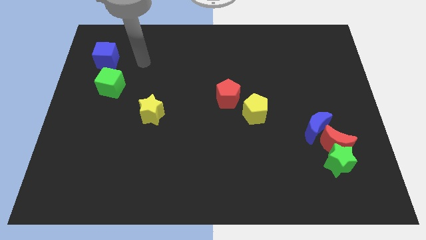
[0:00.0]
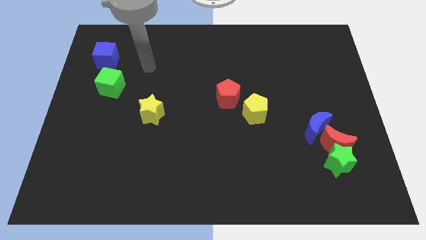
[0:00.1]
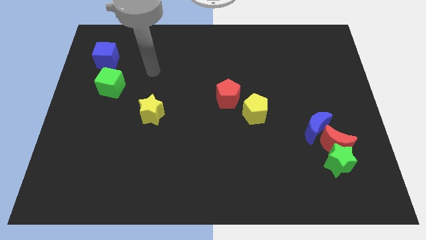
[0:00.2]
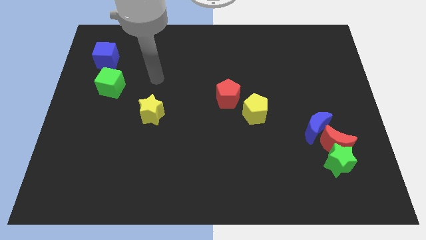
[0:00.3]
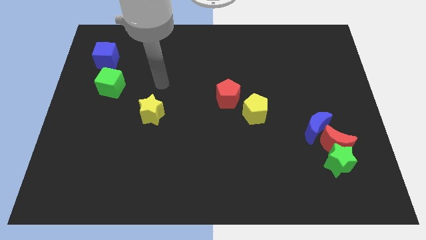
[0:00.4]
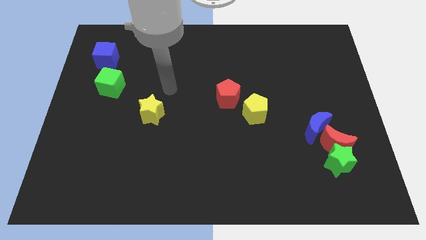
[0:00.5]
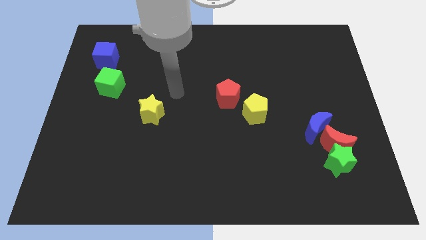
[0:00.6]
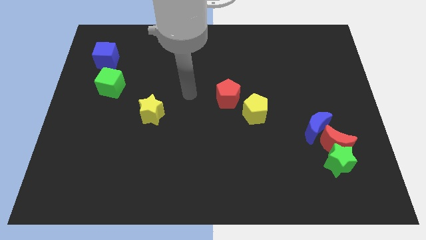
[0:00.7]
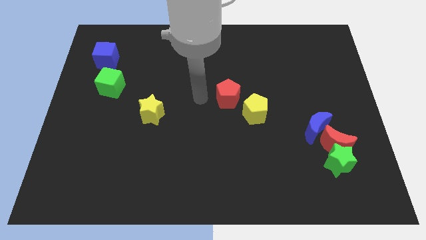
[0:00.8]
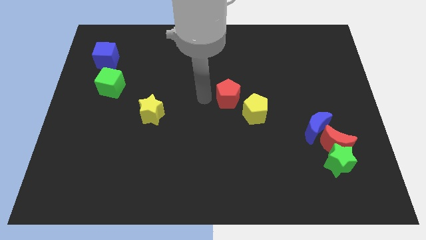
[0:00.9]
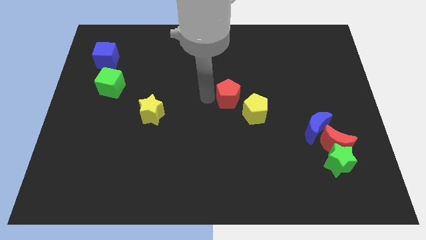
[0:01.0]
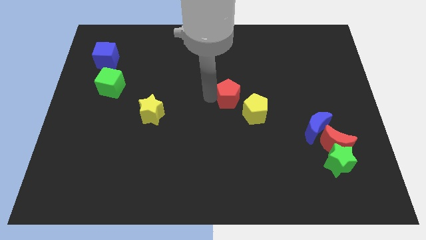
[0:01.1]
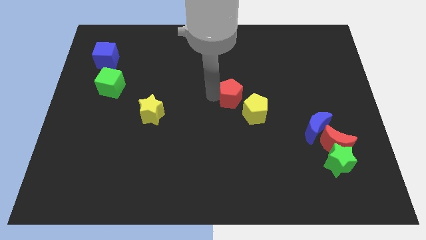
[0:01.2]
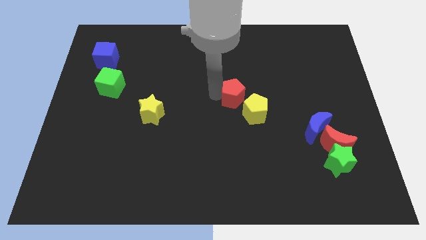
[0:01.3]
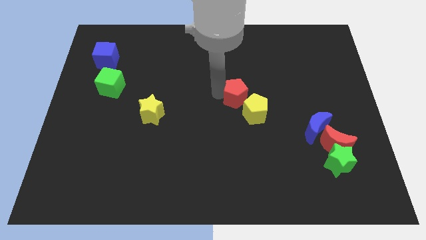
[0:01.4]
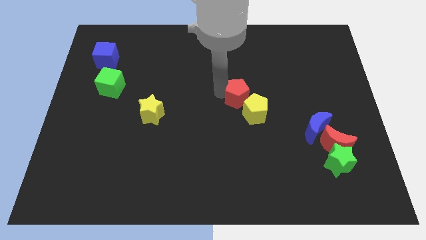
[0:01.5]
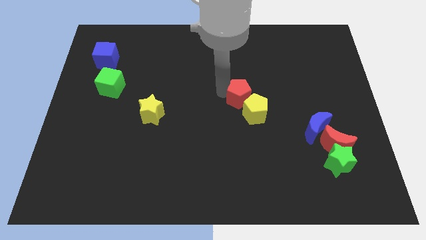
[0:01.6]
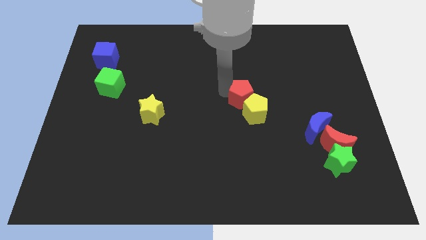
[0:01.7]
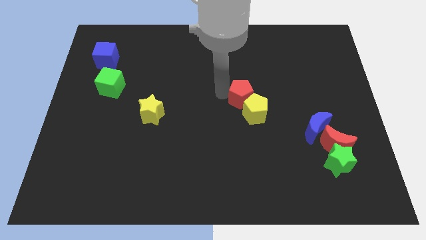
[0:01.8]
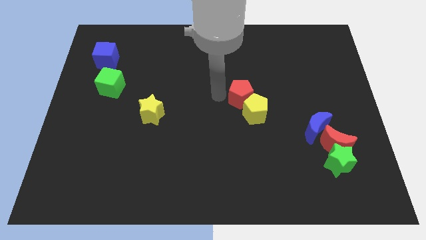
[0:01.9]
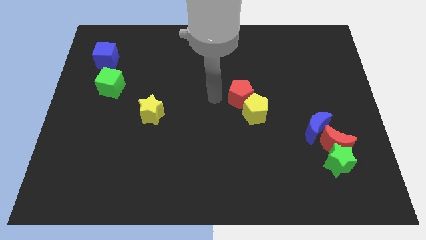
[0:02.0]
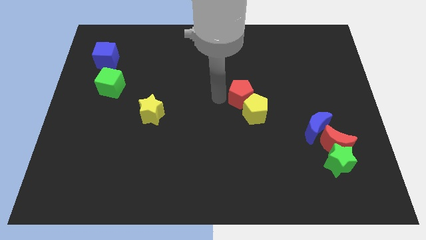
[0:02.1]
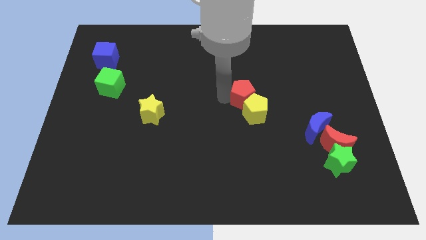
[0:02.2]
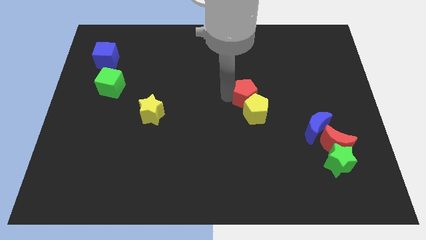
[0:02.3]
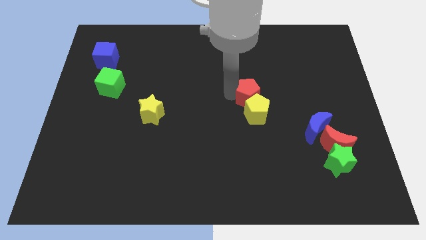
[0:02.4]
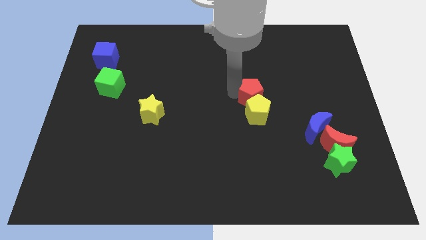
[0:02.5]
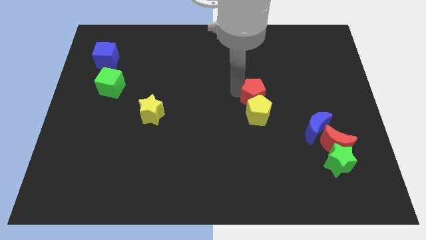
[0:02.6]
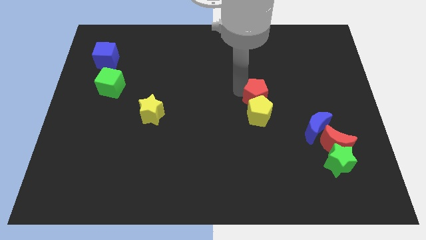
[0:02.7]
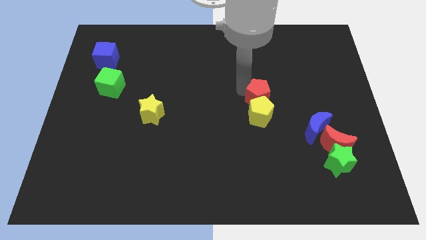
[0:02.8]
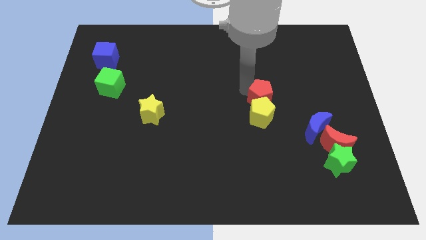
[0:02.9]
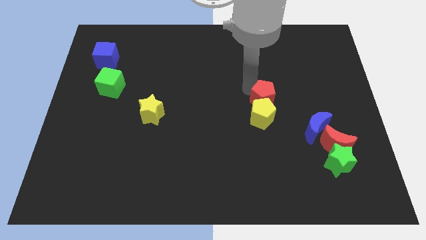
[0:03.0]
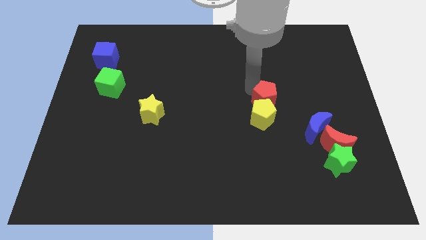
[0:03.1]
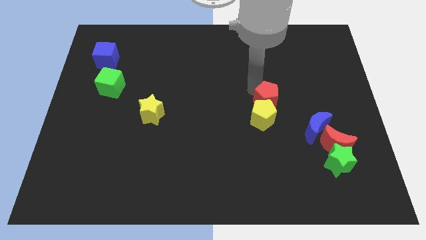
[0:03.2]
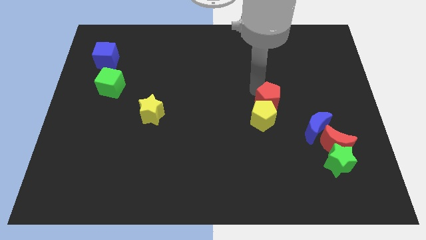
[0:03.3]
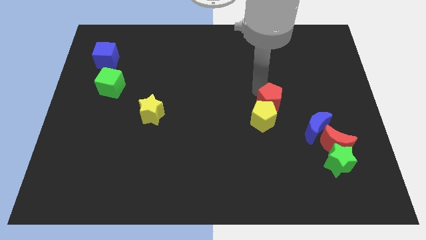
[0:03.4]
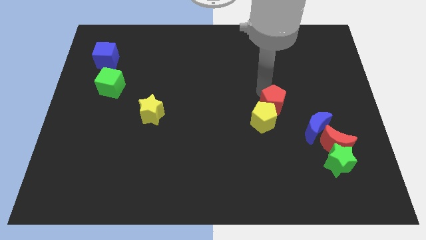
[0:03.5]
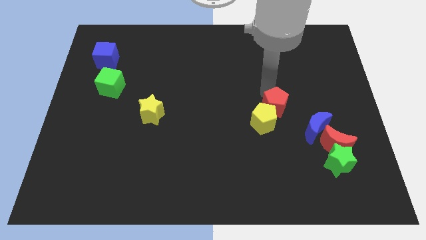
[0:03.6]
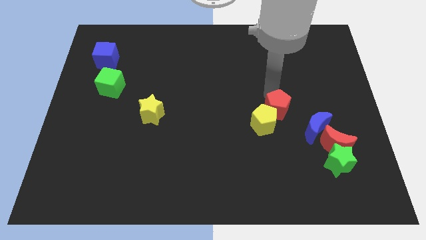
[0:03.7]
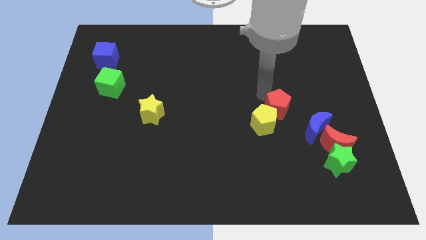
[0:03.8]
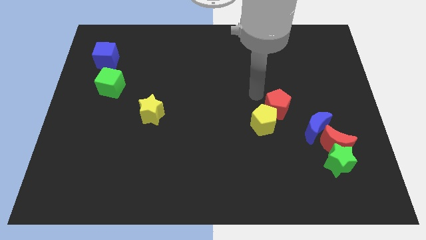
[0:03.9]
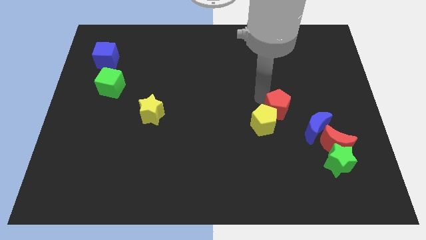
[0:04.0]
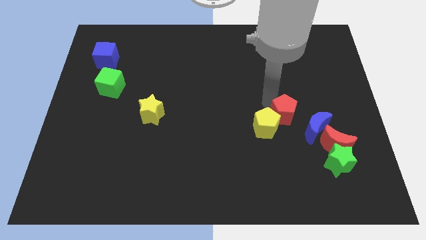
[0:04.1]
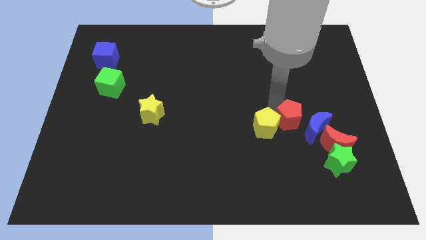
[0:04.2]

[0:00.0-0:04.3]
slide the red pentagon to the top left side of the red moon

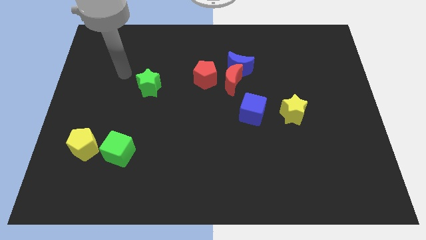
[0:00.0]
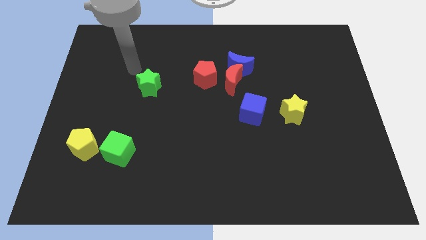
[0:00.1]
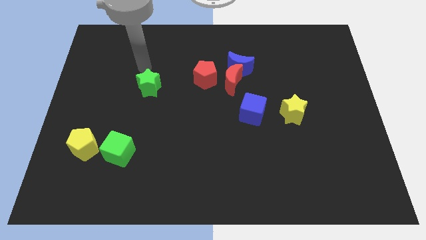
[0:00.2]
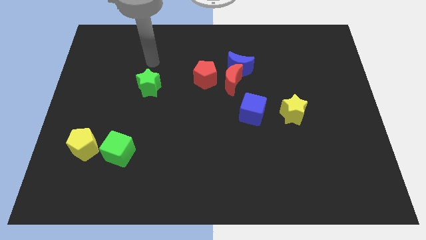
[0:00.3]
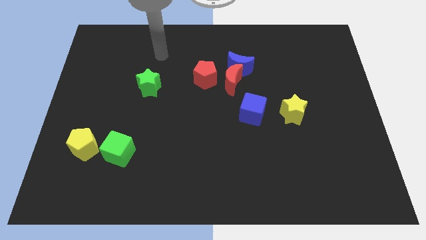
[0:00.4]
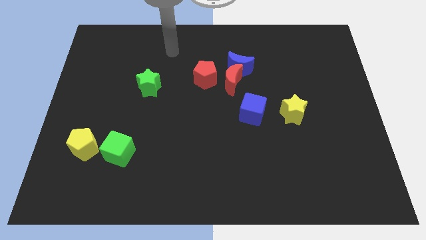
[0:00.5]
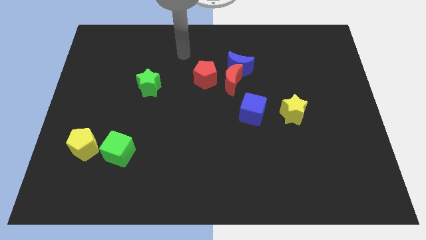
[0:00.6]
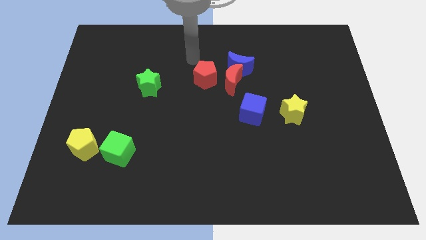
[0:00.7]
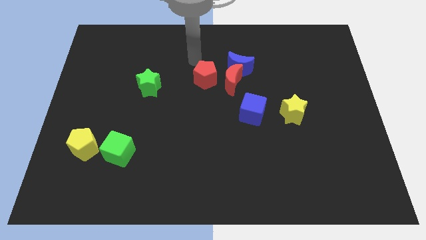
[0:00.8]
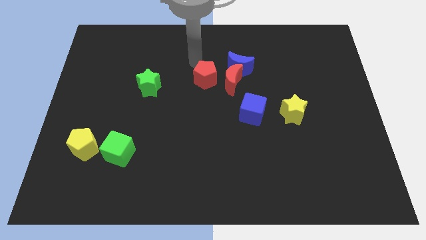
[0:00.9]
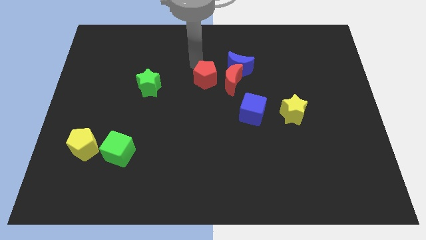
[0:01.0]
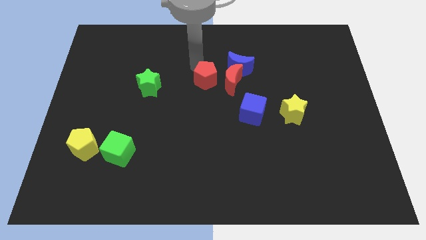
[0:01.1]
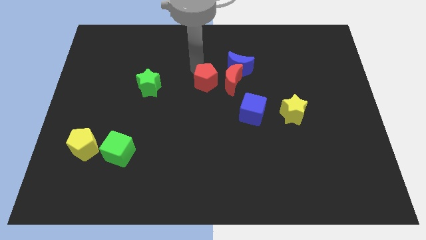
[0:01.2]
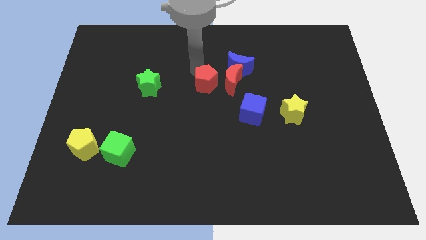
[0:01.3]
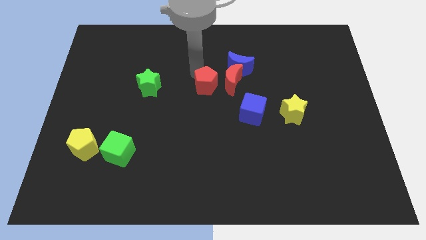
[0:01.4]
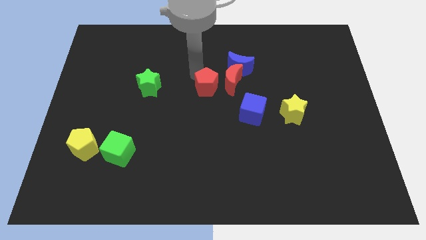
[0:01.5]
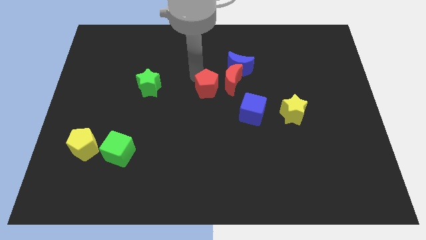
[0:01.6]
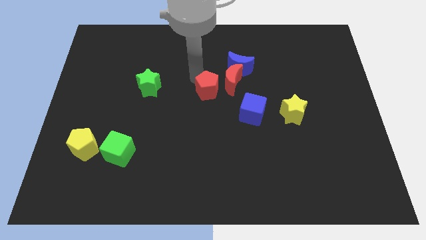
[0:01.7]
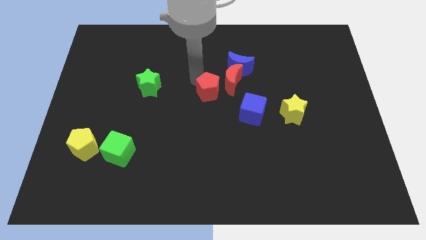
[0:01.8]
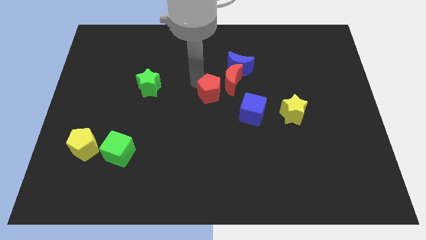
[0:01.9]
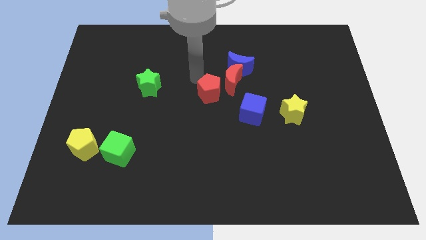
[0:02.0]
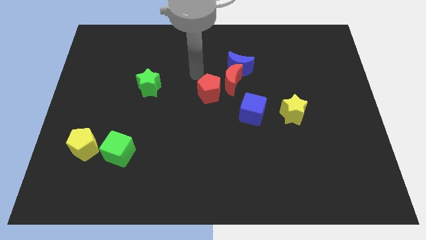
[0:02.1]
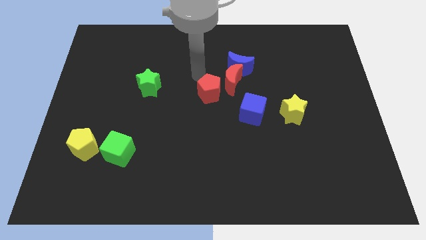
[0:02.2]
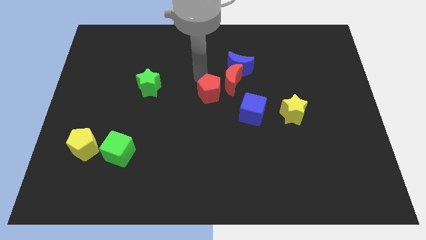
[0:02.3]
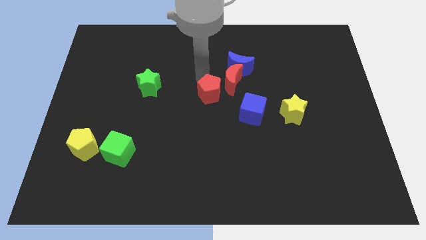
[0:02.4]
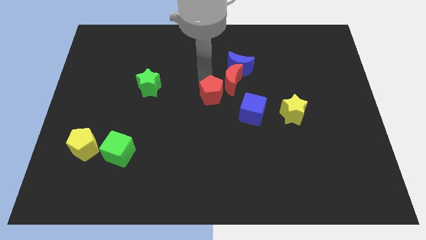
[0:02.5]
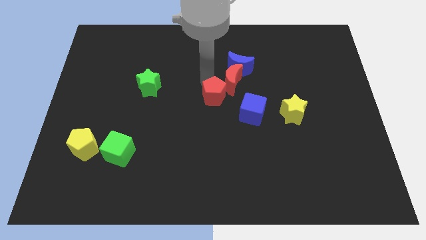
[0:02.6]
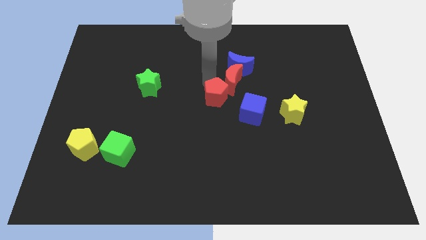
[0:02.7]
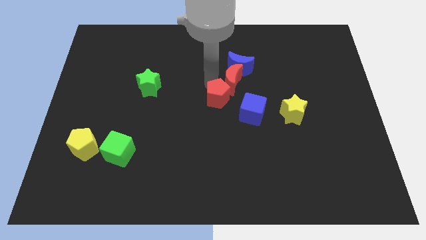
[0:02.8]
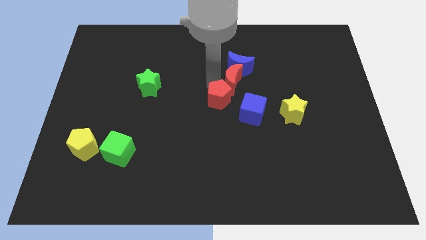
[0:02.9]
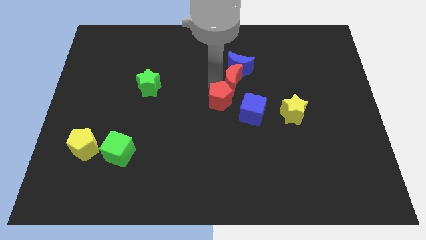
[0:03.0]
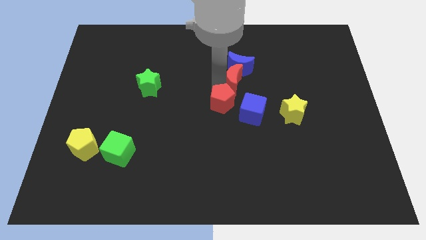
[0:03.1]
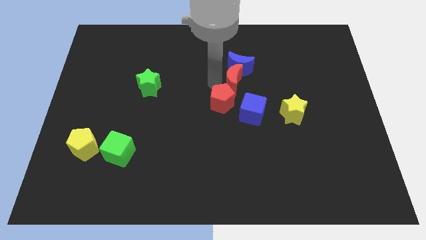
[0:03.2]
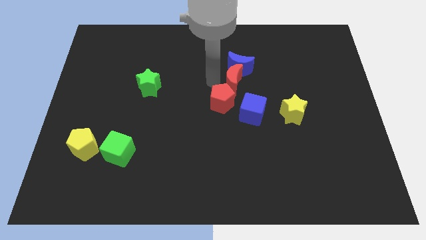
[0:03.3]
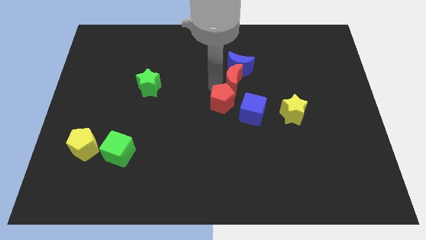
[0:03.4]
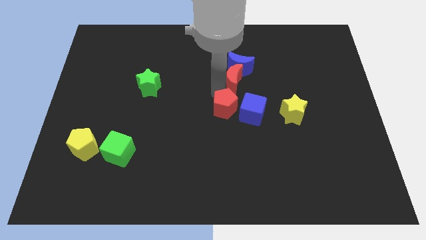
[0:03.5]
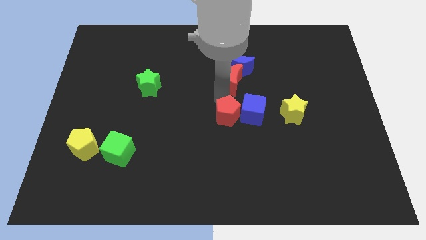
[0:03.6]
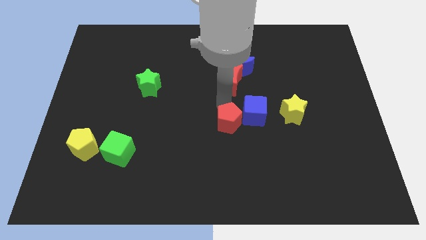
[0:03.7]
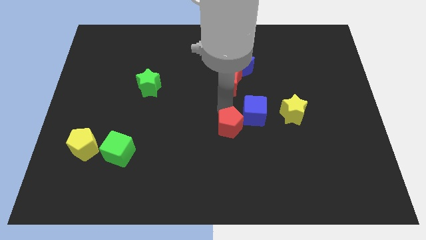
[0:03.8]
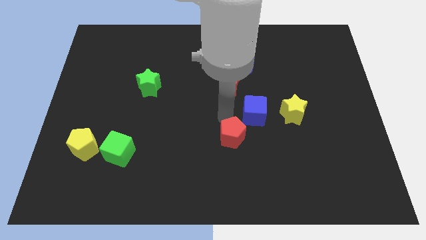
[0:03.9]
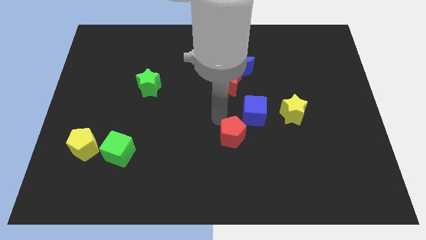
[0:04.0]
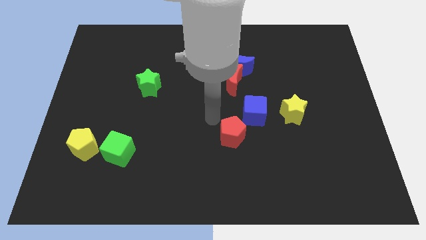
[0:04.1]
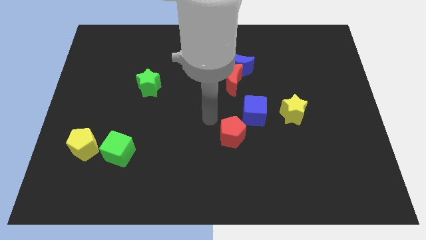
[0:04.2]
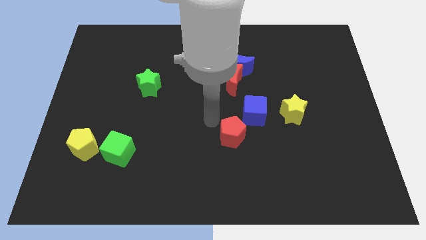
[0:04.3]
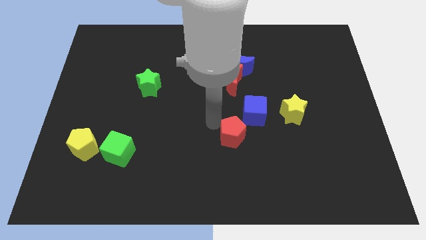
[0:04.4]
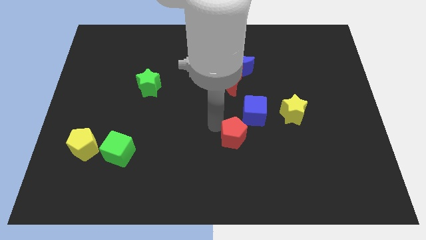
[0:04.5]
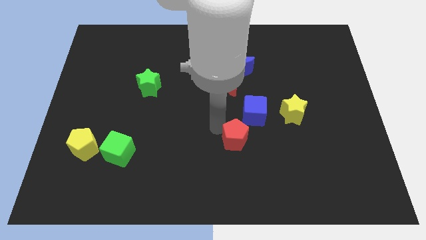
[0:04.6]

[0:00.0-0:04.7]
slide the red pentagon to the bottom side of the blue cube
